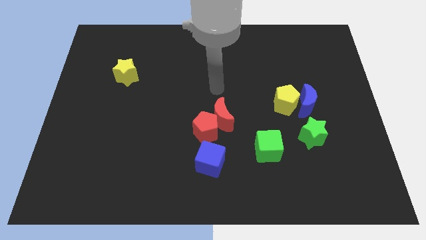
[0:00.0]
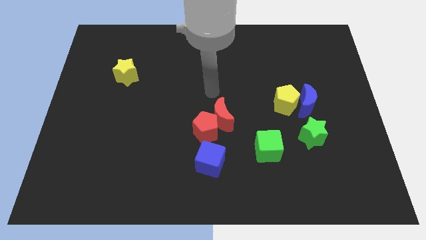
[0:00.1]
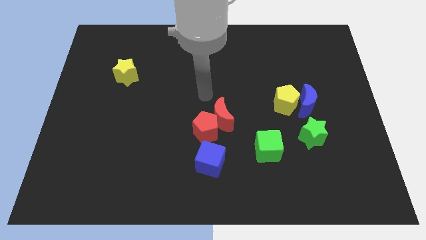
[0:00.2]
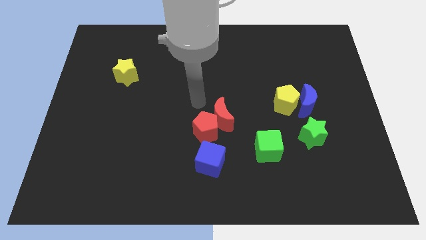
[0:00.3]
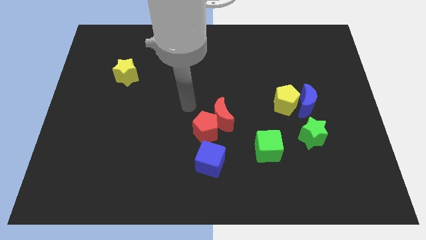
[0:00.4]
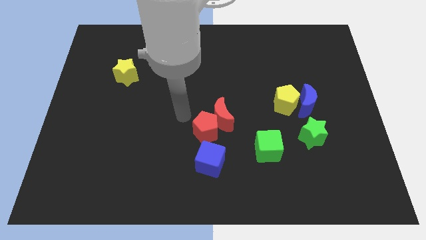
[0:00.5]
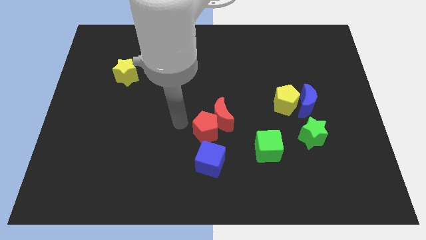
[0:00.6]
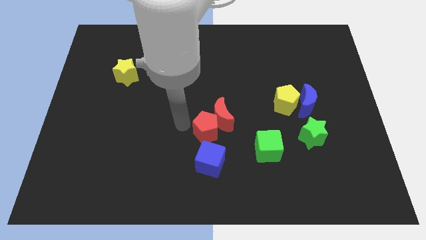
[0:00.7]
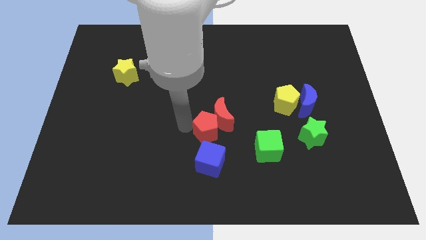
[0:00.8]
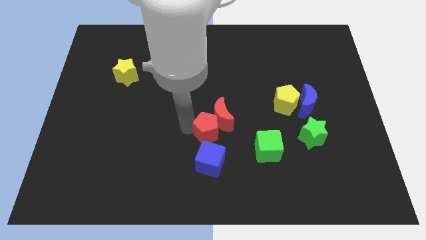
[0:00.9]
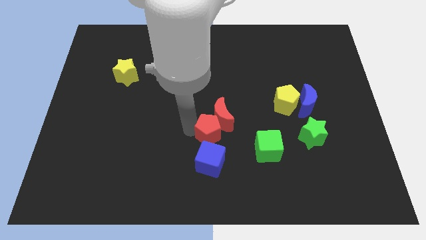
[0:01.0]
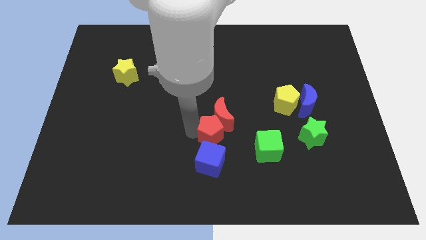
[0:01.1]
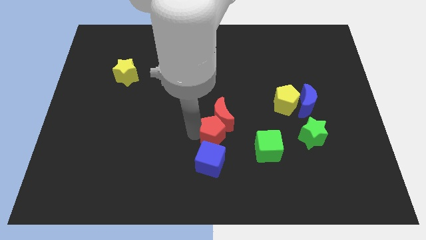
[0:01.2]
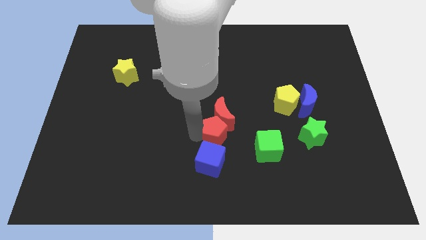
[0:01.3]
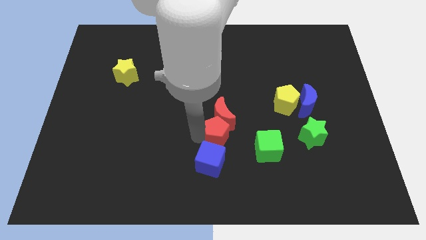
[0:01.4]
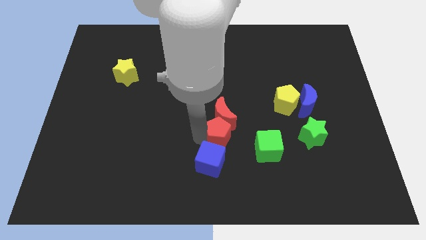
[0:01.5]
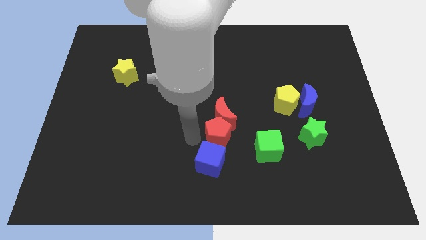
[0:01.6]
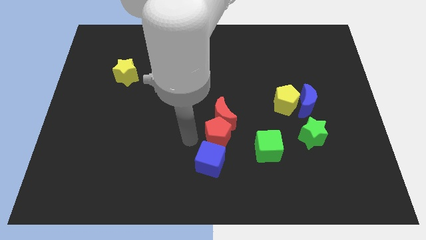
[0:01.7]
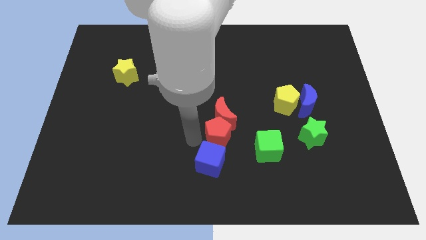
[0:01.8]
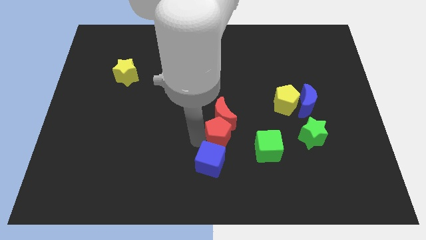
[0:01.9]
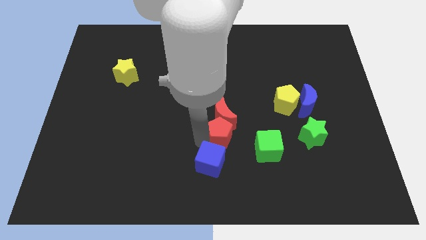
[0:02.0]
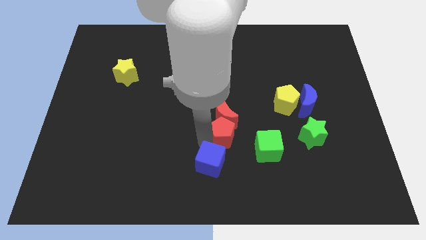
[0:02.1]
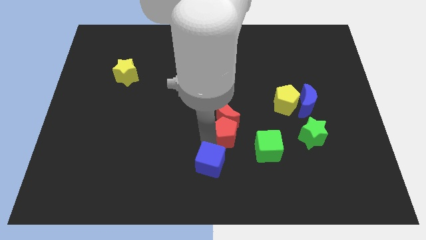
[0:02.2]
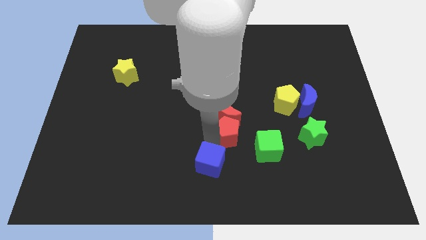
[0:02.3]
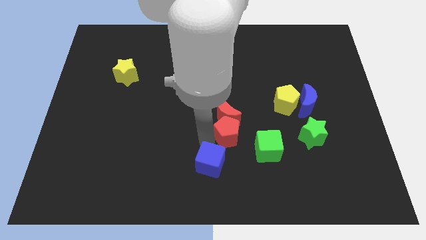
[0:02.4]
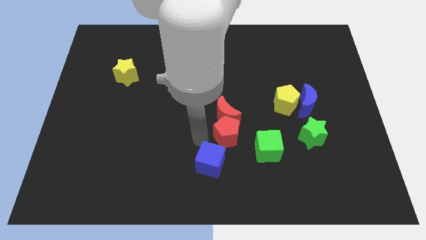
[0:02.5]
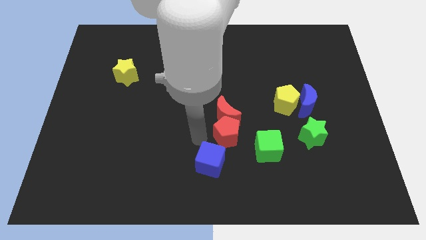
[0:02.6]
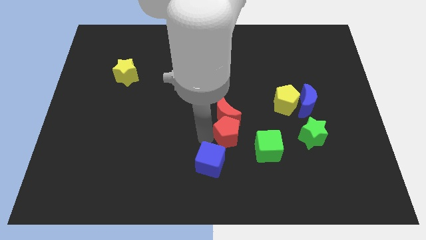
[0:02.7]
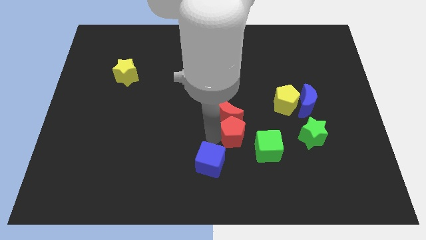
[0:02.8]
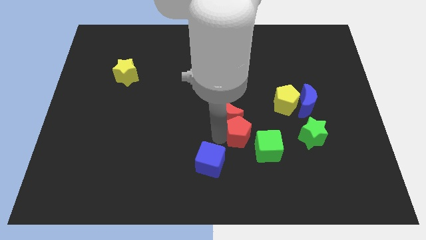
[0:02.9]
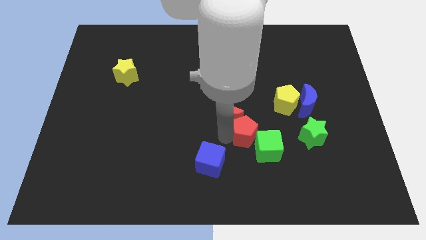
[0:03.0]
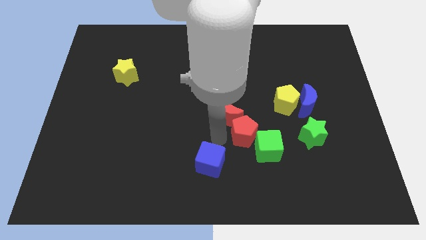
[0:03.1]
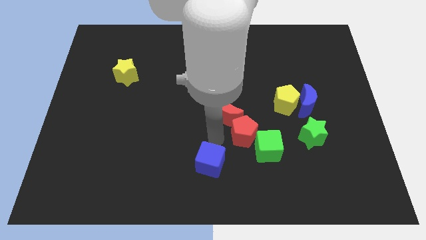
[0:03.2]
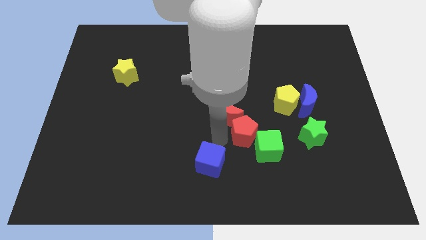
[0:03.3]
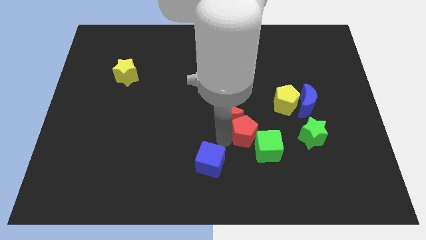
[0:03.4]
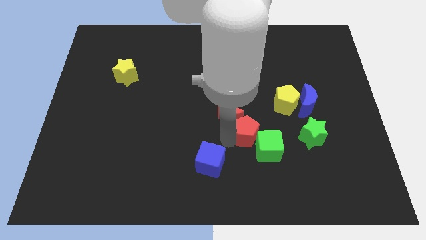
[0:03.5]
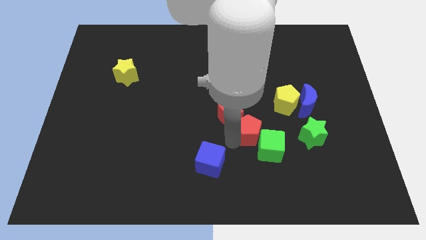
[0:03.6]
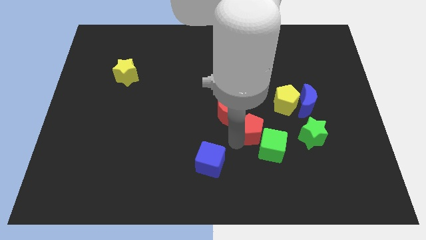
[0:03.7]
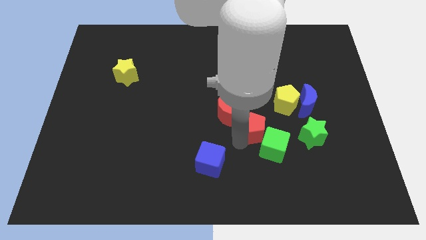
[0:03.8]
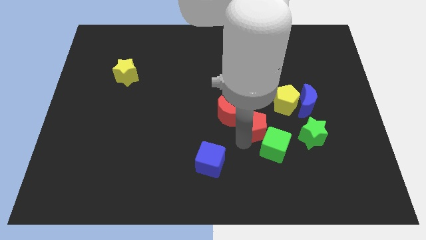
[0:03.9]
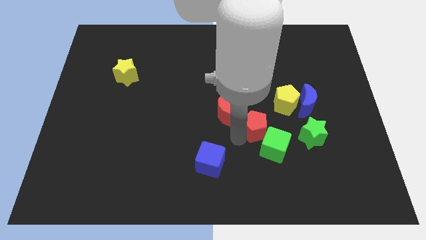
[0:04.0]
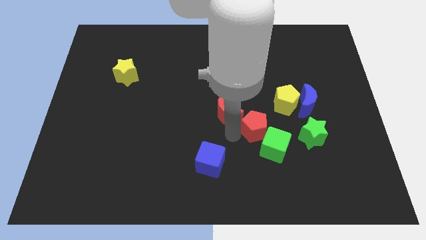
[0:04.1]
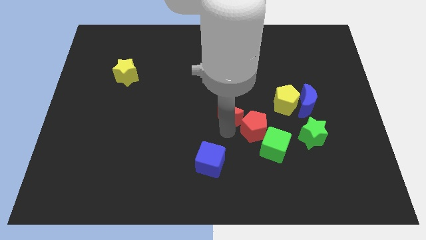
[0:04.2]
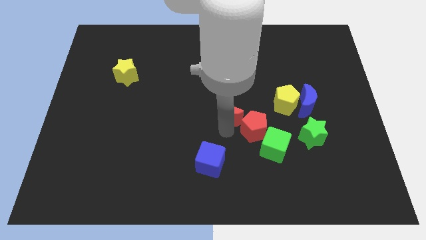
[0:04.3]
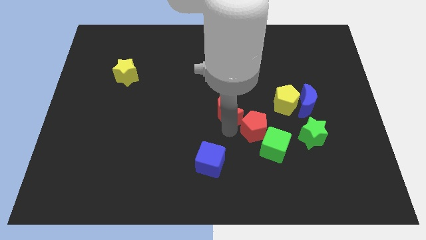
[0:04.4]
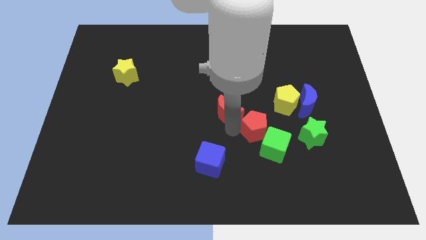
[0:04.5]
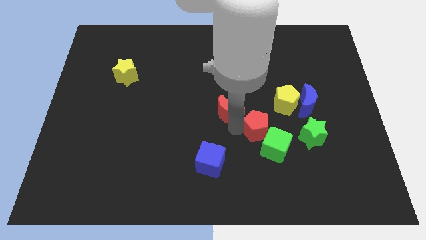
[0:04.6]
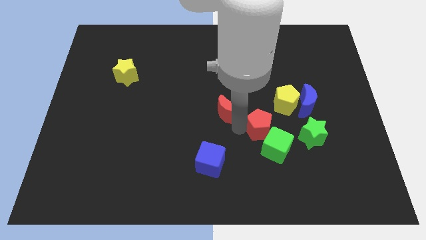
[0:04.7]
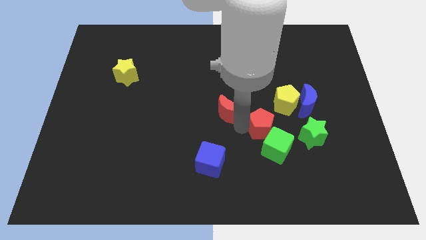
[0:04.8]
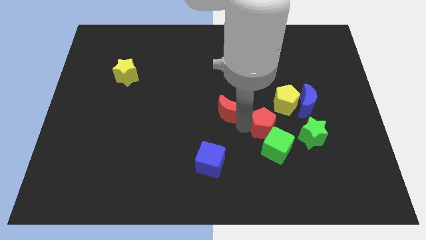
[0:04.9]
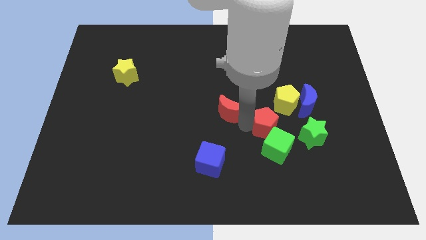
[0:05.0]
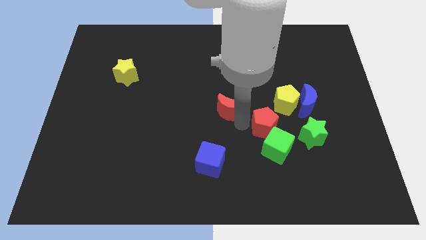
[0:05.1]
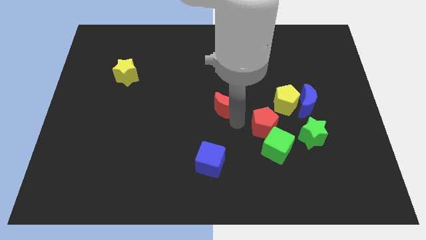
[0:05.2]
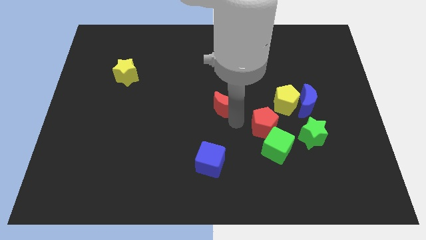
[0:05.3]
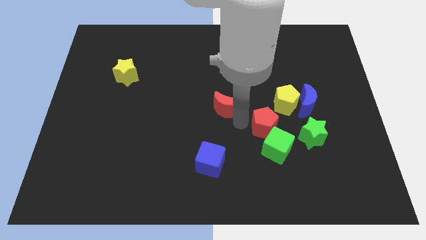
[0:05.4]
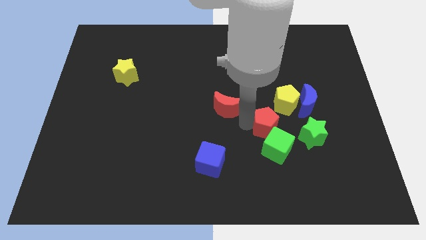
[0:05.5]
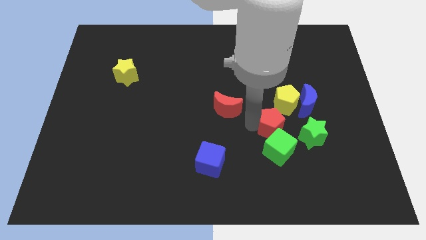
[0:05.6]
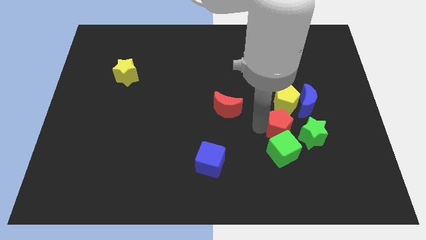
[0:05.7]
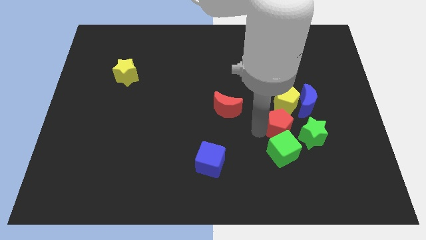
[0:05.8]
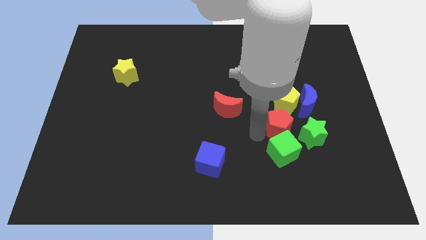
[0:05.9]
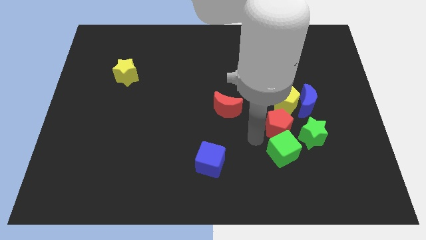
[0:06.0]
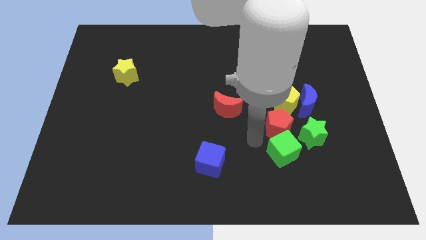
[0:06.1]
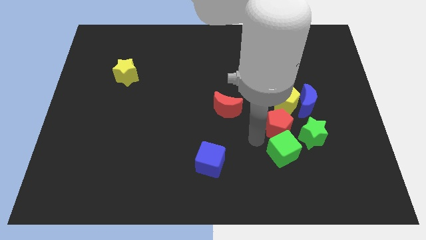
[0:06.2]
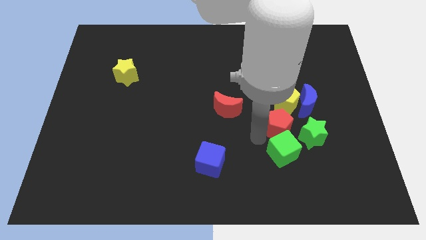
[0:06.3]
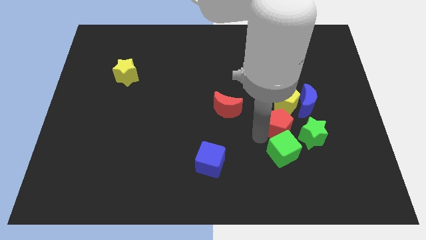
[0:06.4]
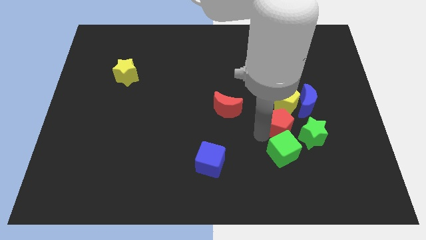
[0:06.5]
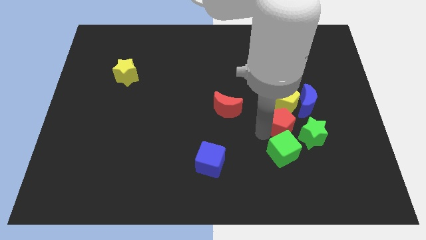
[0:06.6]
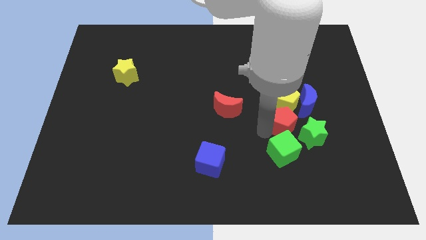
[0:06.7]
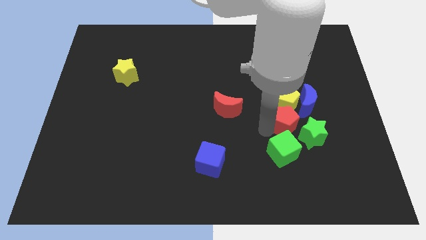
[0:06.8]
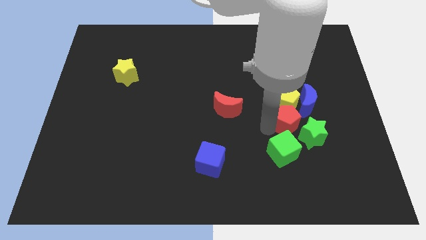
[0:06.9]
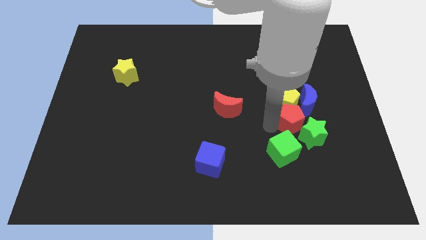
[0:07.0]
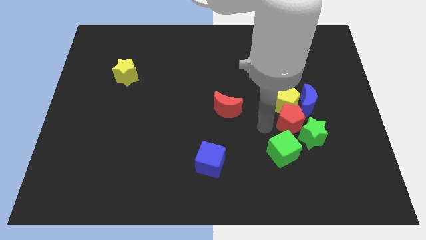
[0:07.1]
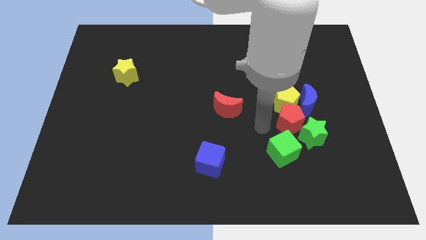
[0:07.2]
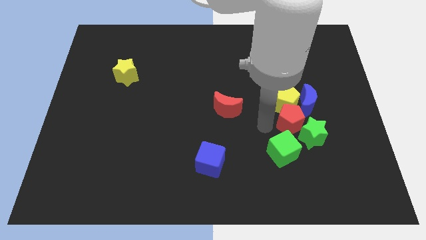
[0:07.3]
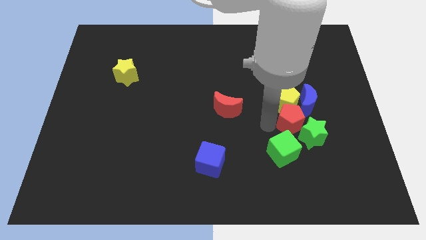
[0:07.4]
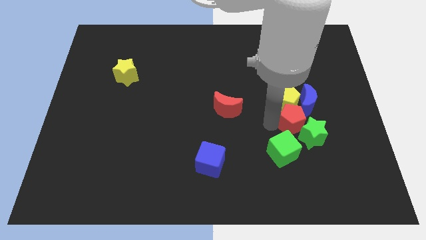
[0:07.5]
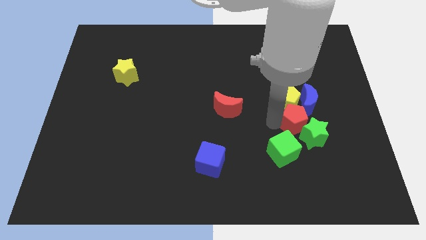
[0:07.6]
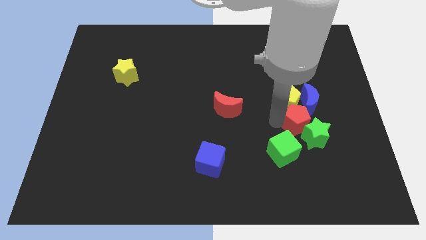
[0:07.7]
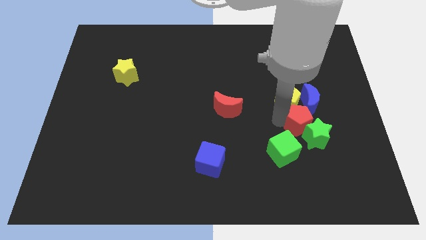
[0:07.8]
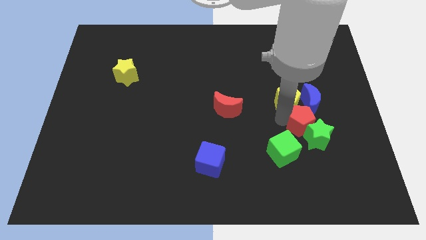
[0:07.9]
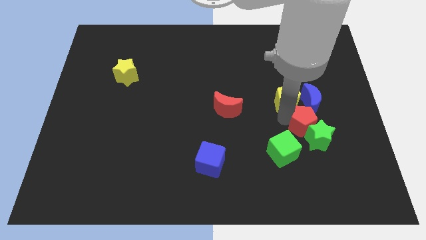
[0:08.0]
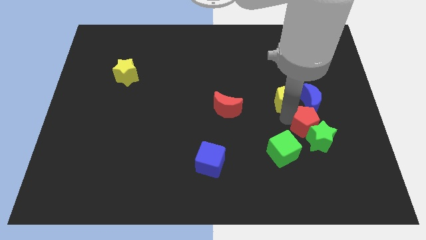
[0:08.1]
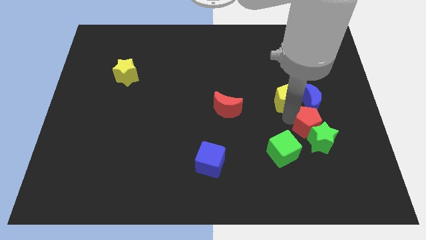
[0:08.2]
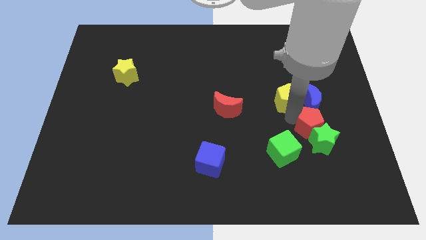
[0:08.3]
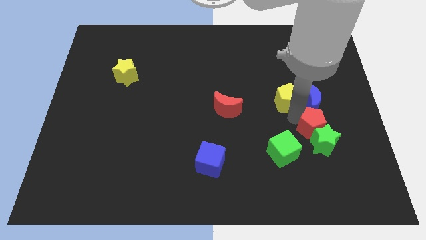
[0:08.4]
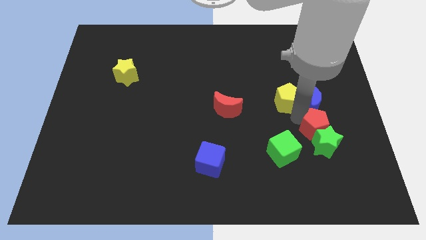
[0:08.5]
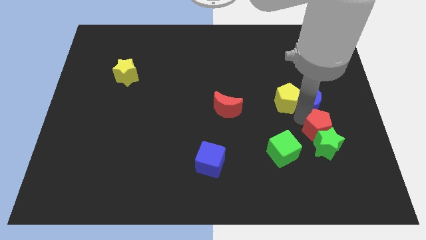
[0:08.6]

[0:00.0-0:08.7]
move the red pentagon diagonally down and to the right of the blue moon
